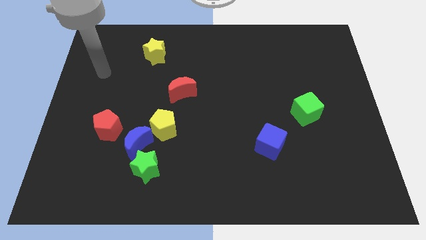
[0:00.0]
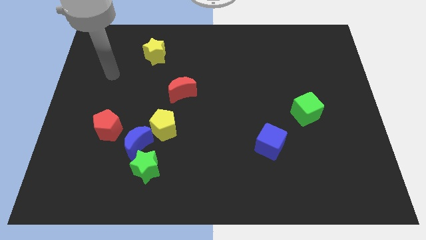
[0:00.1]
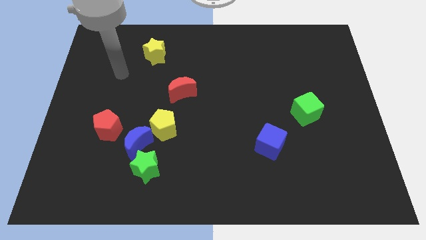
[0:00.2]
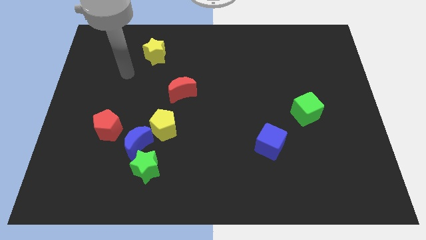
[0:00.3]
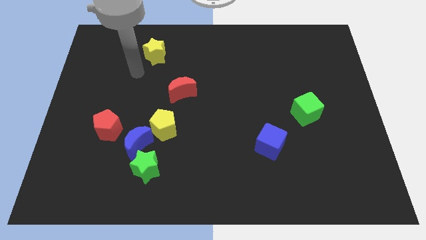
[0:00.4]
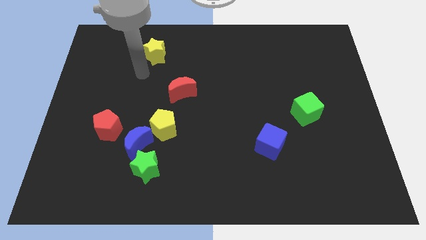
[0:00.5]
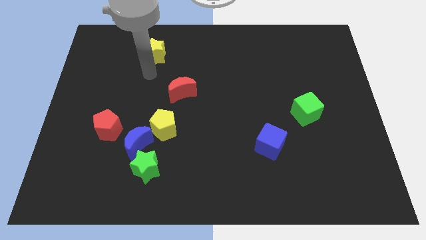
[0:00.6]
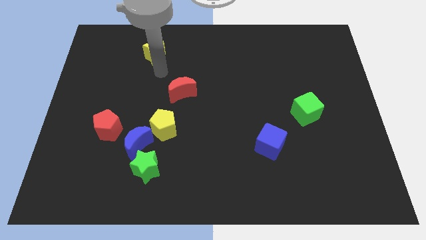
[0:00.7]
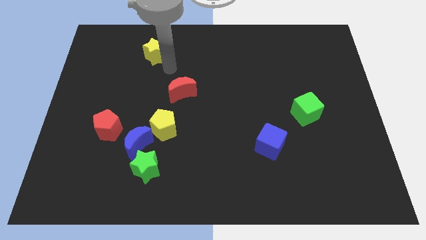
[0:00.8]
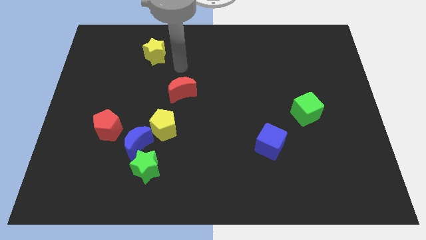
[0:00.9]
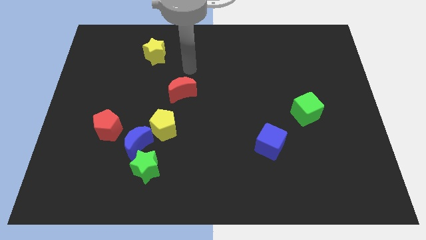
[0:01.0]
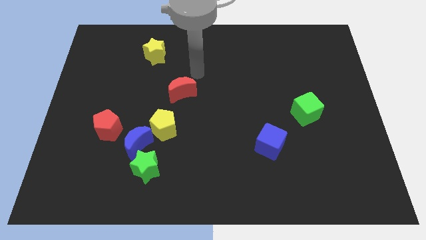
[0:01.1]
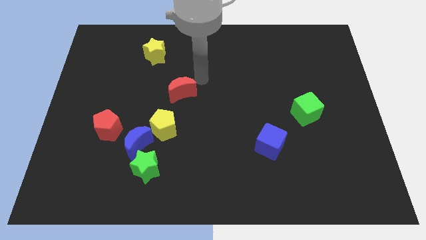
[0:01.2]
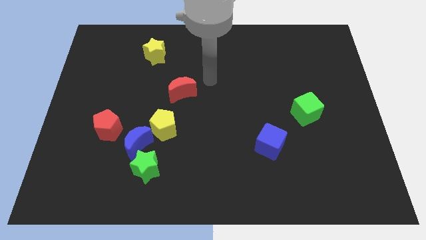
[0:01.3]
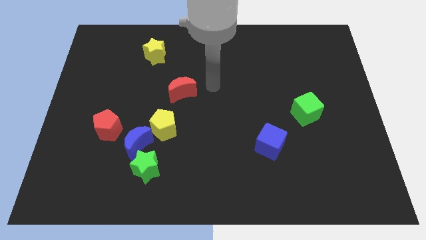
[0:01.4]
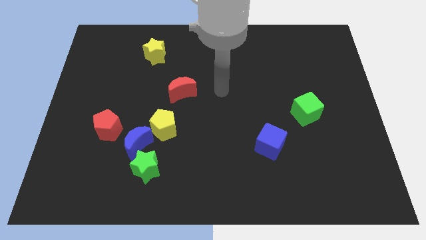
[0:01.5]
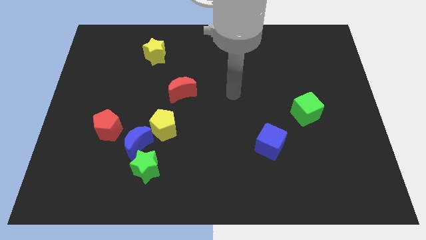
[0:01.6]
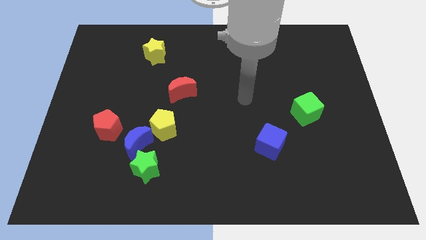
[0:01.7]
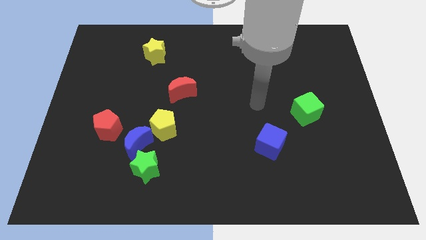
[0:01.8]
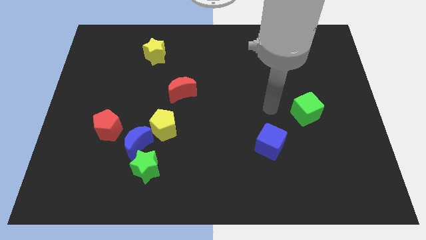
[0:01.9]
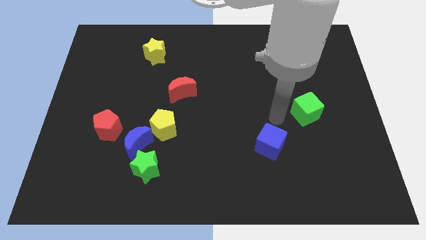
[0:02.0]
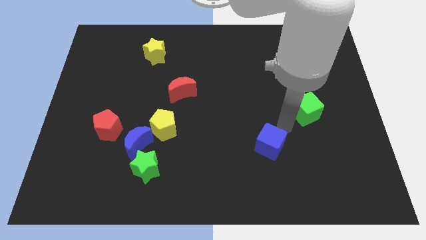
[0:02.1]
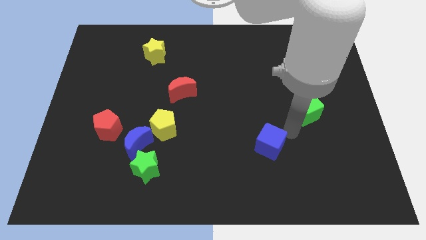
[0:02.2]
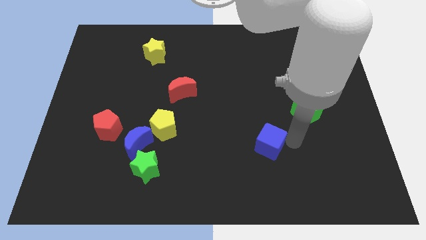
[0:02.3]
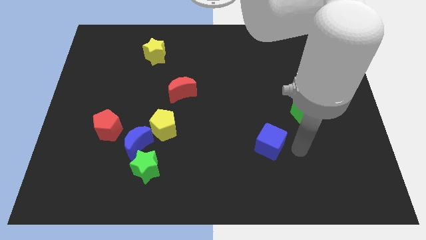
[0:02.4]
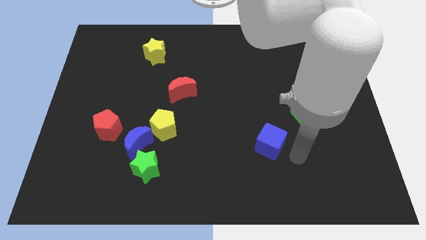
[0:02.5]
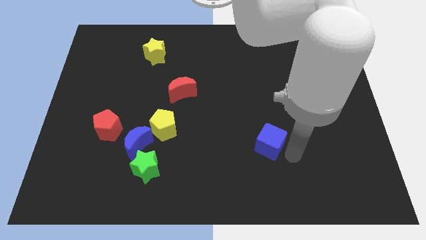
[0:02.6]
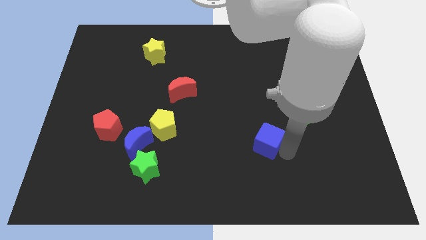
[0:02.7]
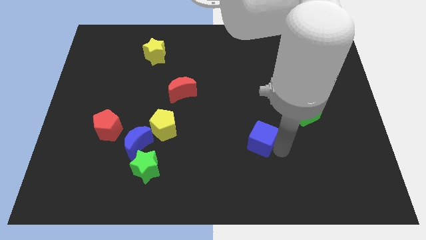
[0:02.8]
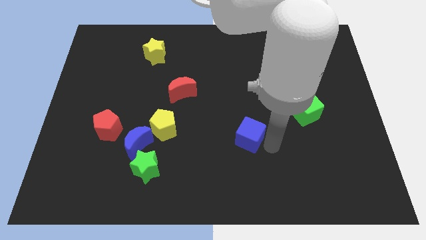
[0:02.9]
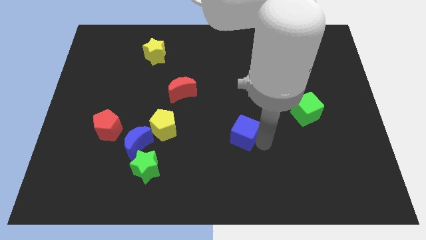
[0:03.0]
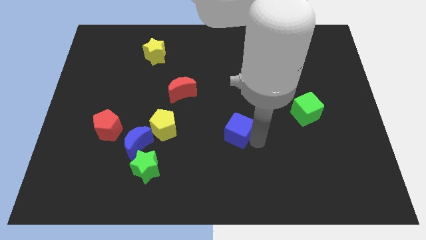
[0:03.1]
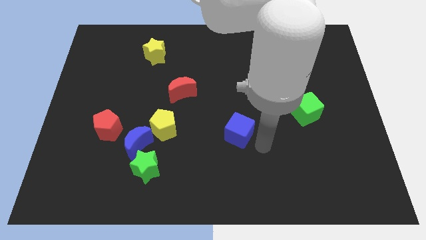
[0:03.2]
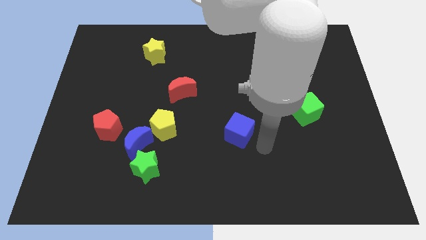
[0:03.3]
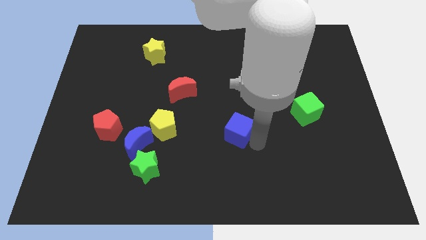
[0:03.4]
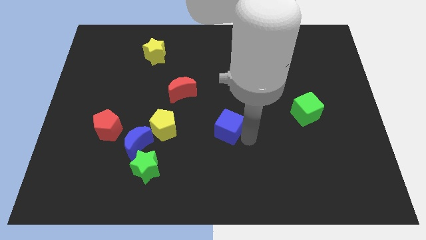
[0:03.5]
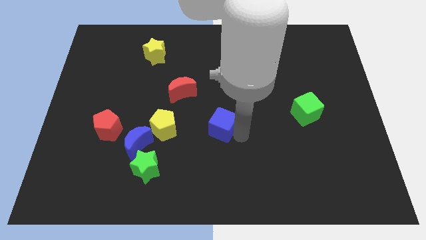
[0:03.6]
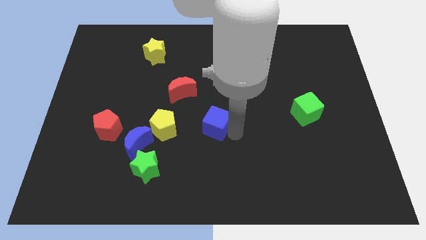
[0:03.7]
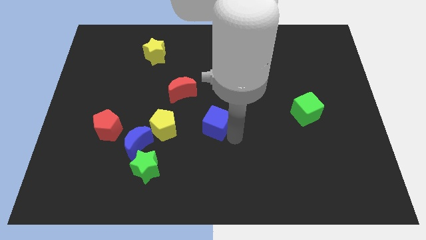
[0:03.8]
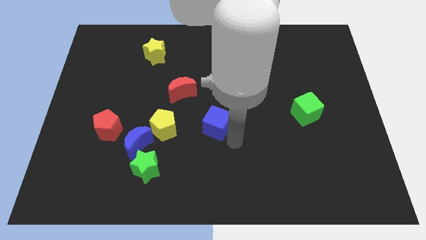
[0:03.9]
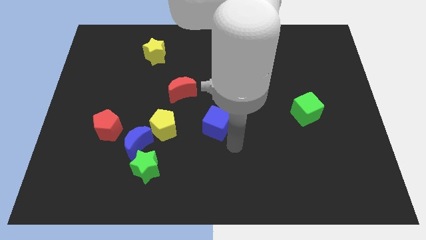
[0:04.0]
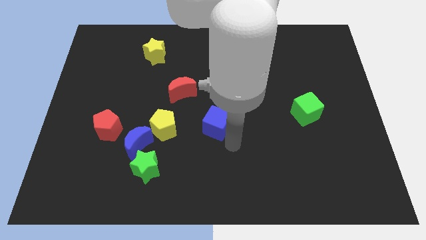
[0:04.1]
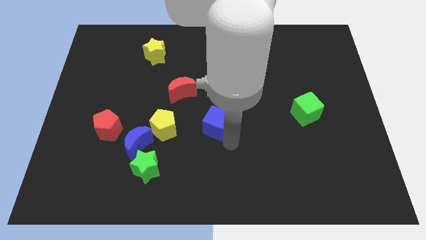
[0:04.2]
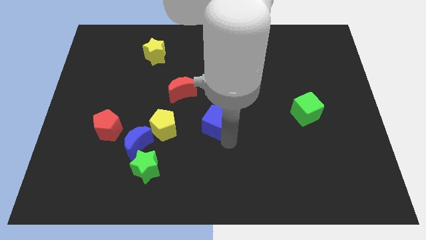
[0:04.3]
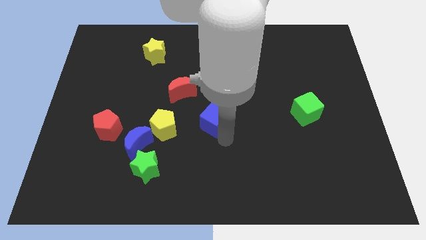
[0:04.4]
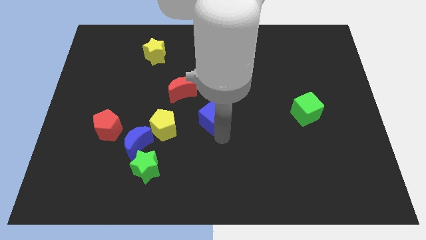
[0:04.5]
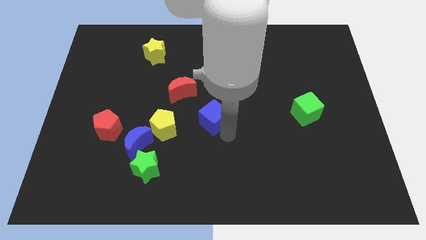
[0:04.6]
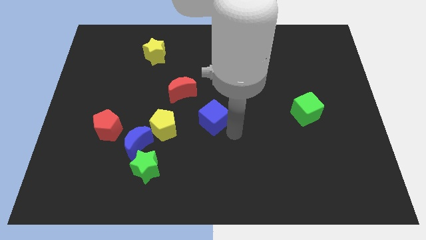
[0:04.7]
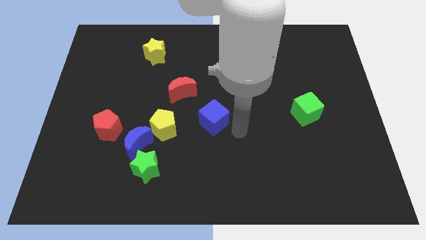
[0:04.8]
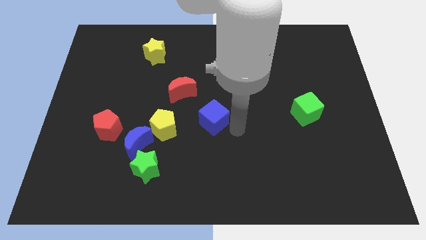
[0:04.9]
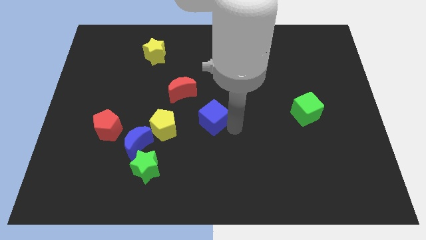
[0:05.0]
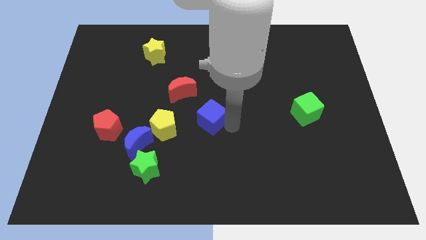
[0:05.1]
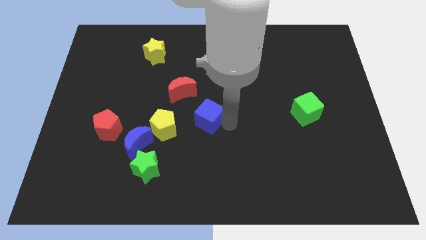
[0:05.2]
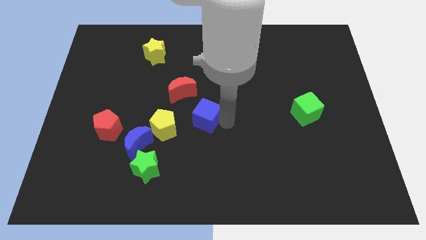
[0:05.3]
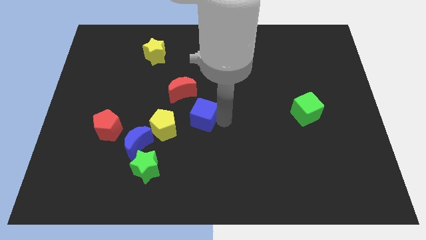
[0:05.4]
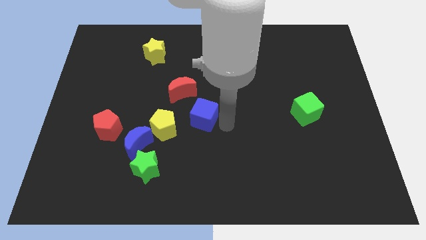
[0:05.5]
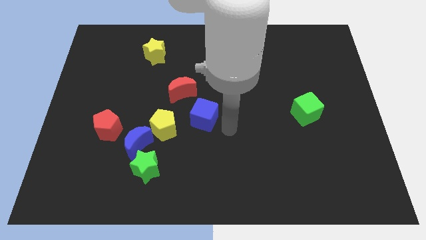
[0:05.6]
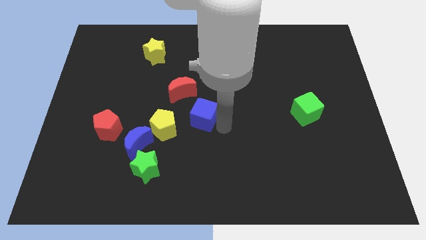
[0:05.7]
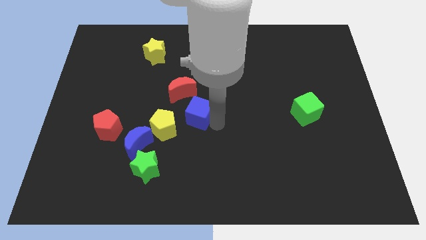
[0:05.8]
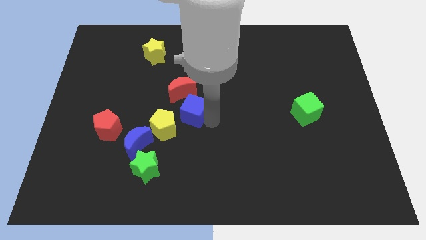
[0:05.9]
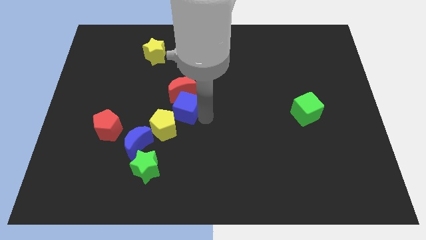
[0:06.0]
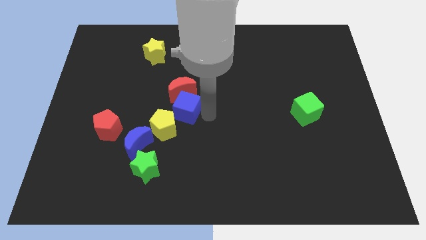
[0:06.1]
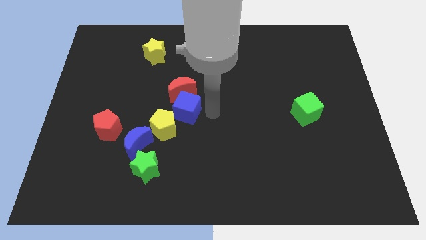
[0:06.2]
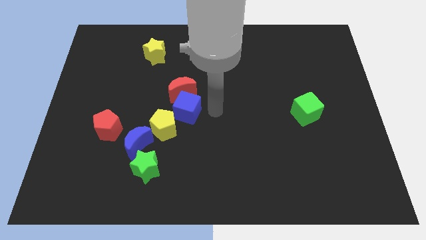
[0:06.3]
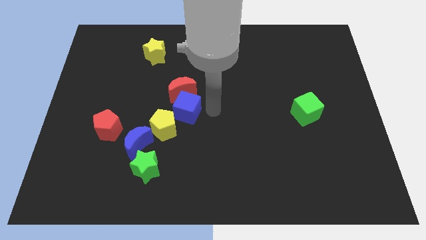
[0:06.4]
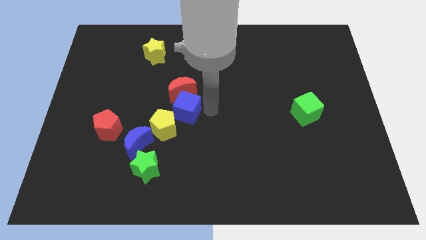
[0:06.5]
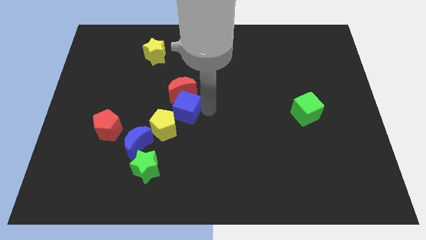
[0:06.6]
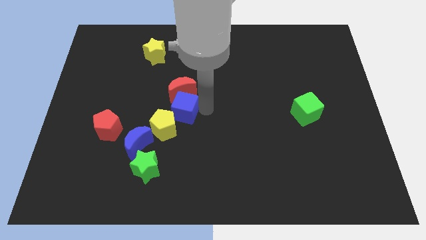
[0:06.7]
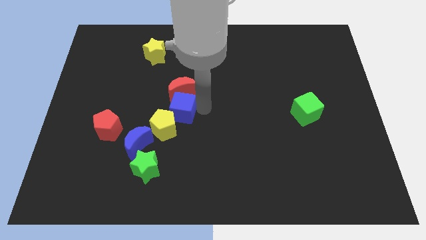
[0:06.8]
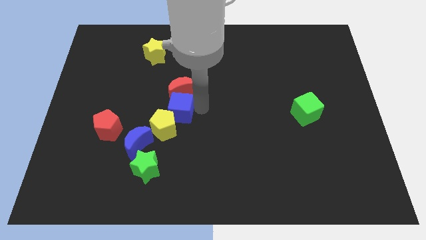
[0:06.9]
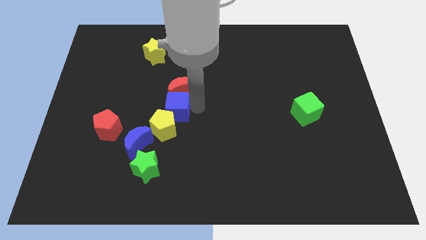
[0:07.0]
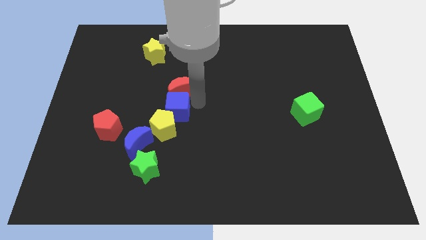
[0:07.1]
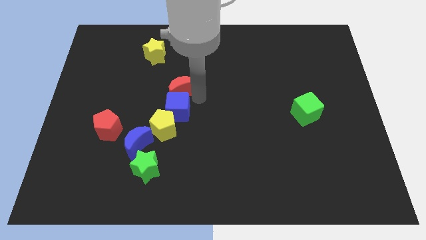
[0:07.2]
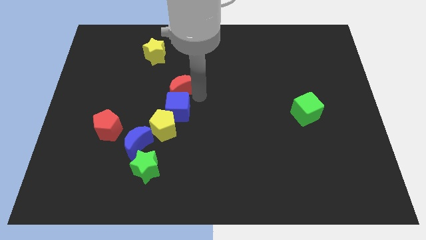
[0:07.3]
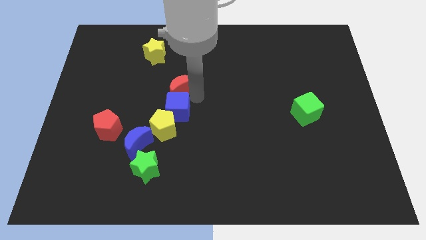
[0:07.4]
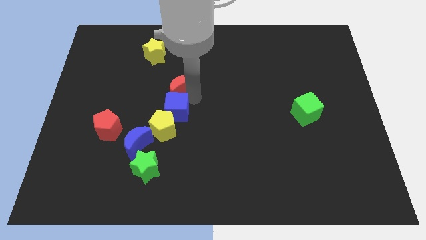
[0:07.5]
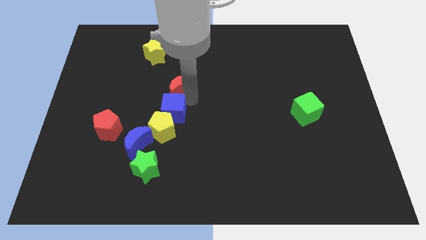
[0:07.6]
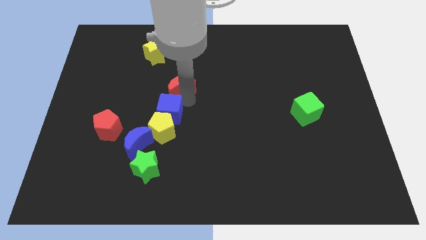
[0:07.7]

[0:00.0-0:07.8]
push the blue cube to the top of the green star
